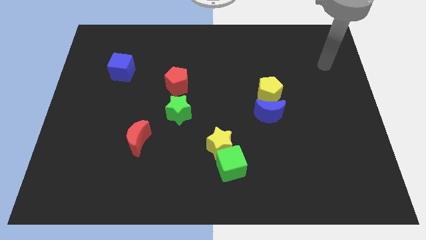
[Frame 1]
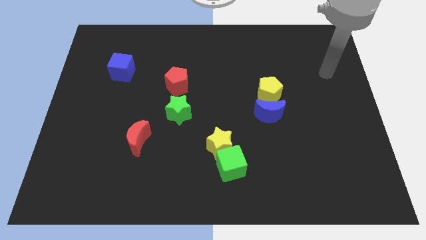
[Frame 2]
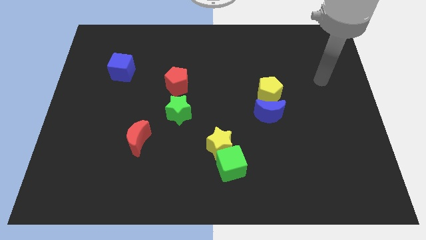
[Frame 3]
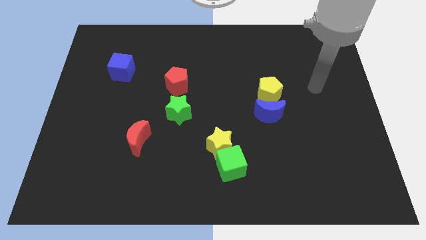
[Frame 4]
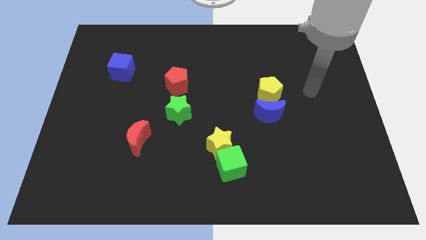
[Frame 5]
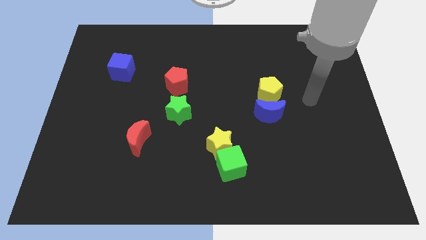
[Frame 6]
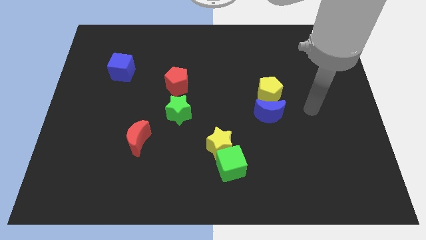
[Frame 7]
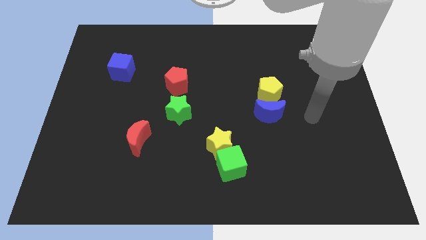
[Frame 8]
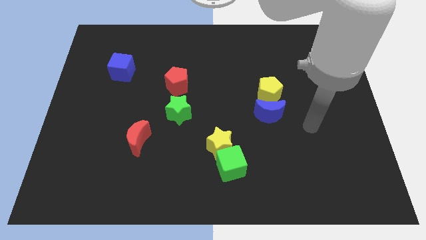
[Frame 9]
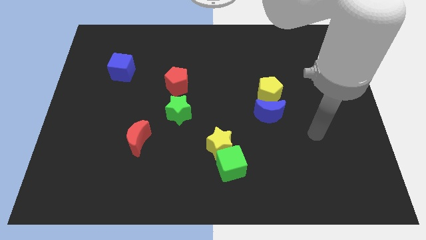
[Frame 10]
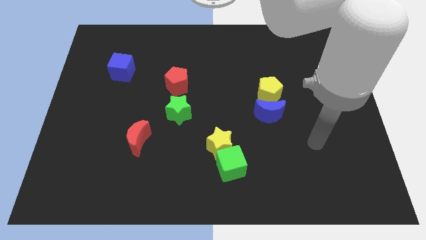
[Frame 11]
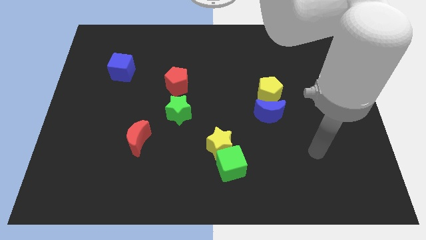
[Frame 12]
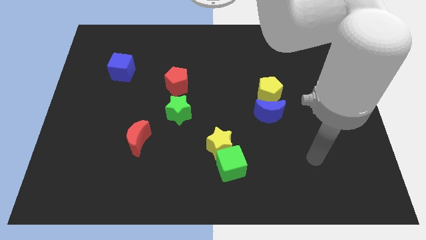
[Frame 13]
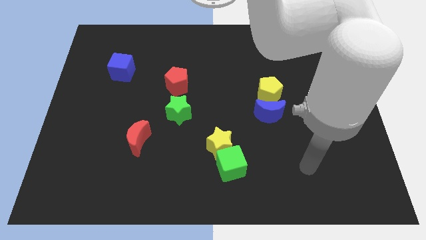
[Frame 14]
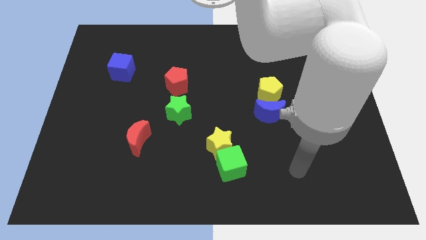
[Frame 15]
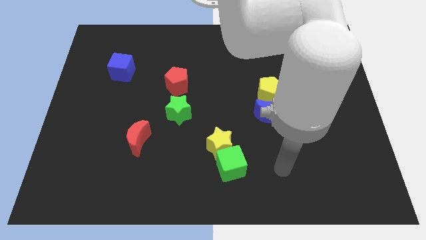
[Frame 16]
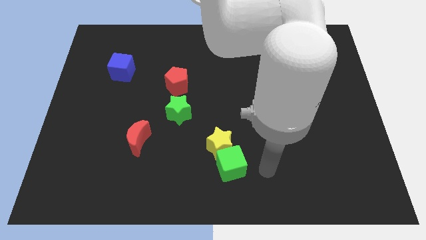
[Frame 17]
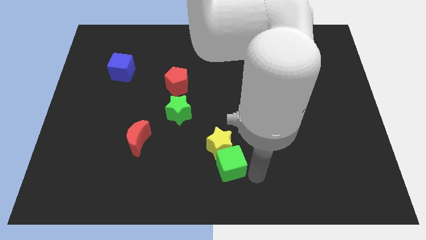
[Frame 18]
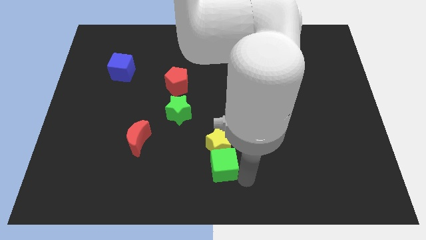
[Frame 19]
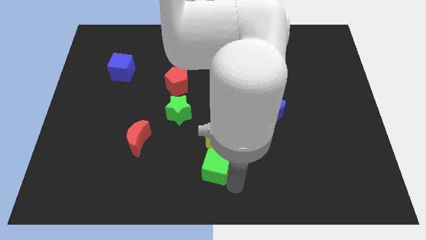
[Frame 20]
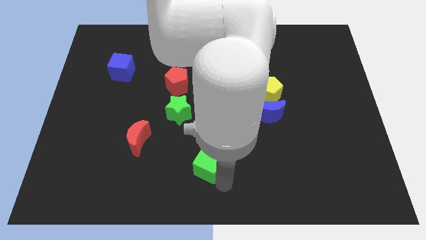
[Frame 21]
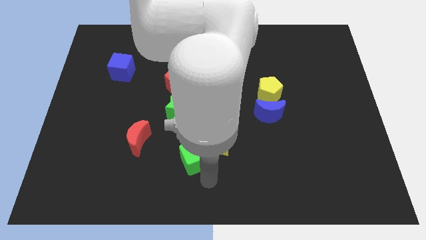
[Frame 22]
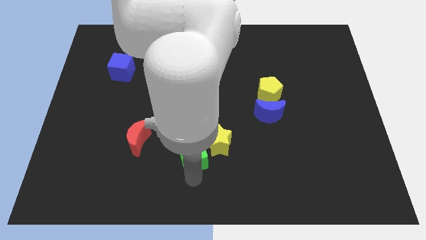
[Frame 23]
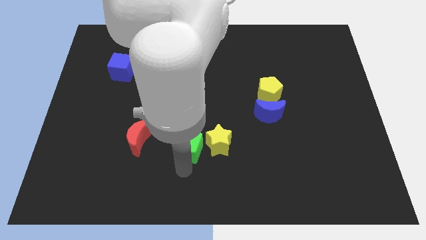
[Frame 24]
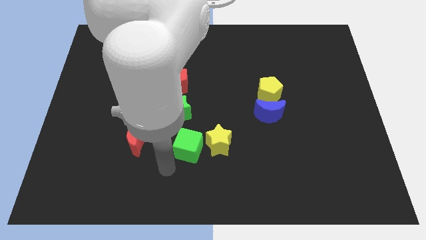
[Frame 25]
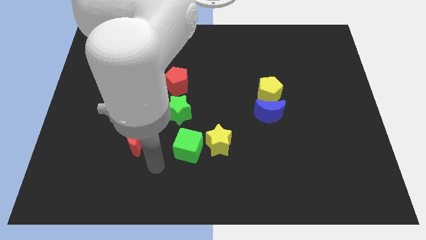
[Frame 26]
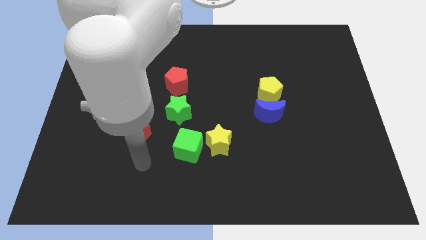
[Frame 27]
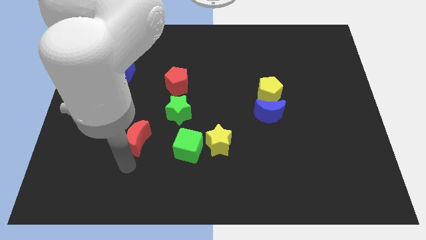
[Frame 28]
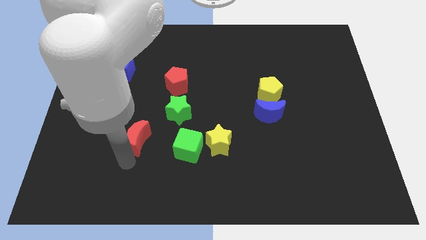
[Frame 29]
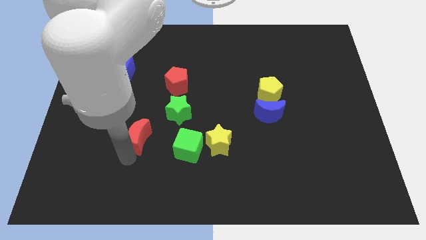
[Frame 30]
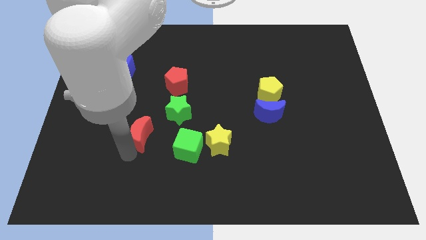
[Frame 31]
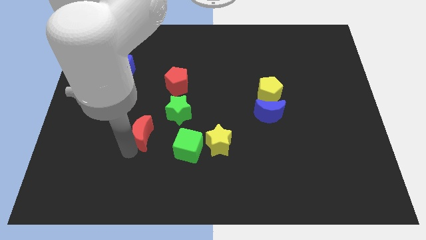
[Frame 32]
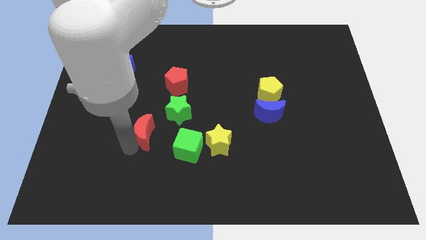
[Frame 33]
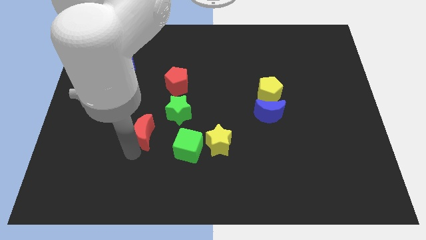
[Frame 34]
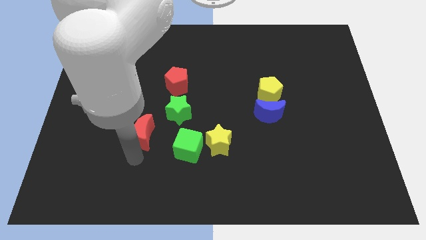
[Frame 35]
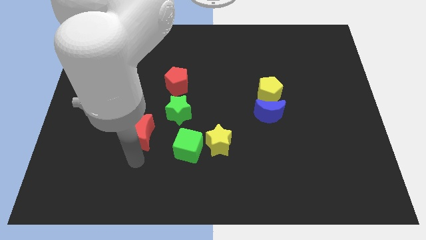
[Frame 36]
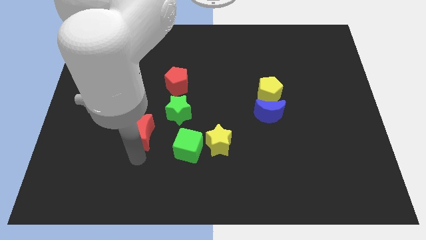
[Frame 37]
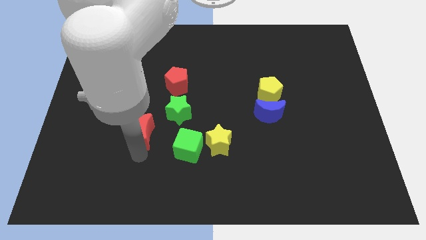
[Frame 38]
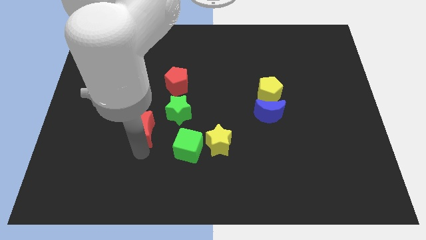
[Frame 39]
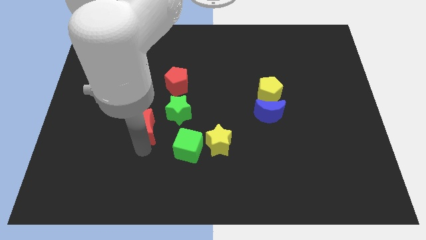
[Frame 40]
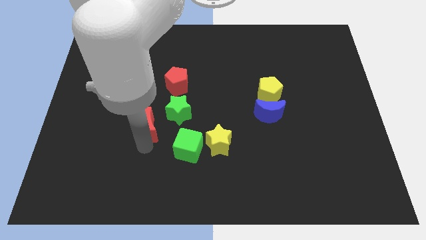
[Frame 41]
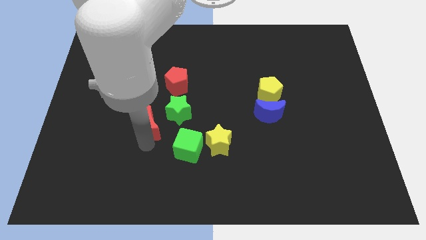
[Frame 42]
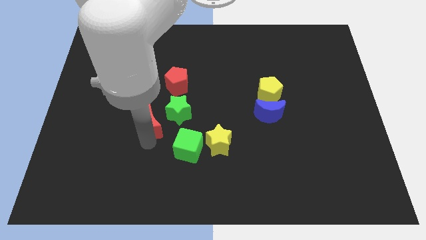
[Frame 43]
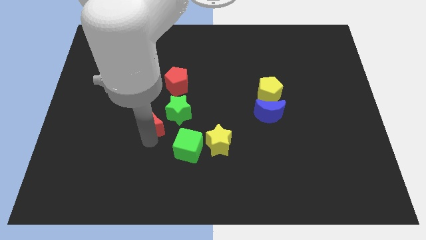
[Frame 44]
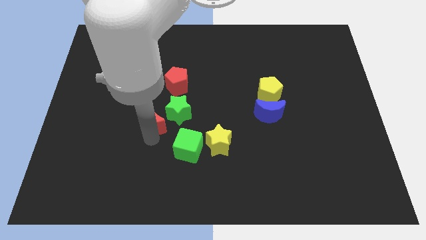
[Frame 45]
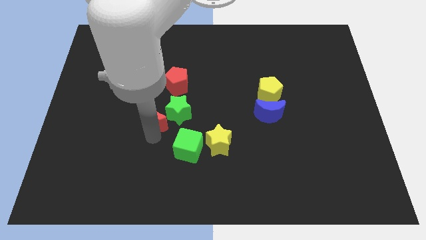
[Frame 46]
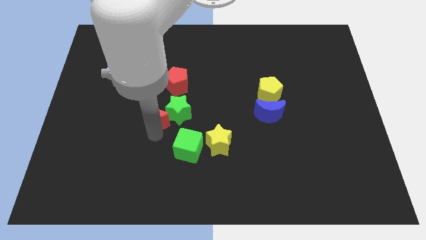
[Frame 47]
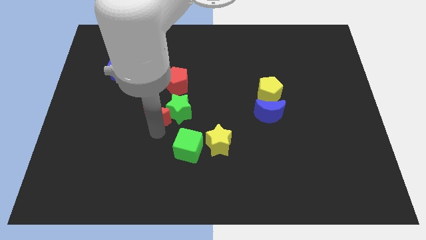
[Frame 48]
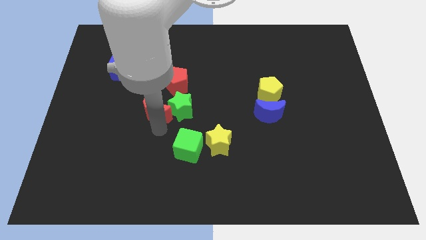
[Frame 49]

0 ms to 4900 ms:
move the red moon up and right diagonally slightly

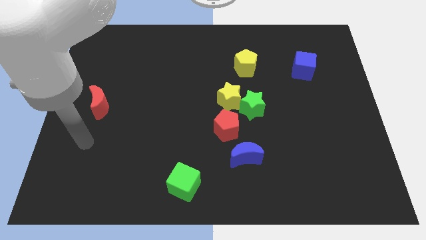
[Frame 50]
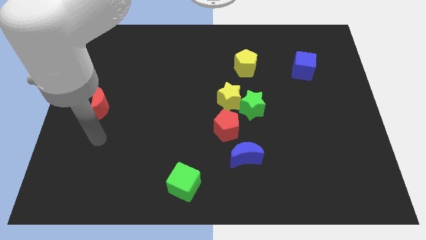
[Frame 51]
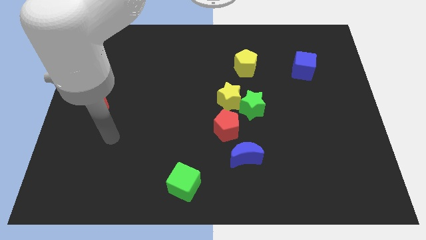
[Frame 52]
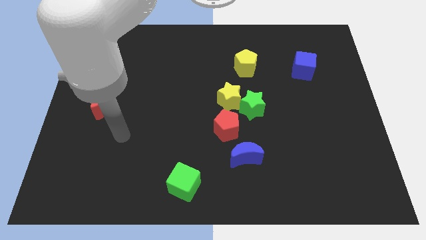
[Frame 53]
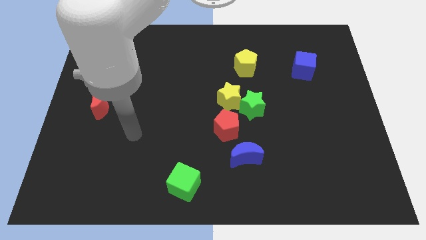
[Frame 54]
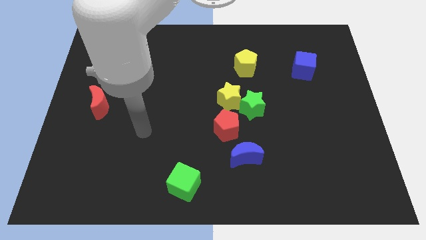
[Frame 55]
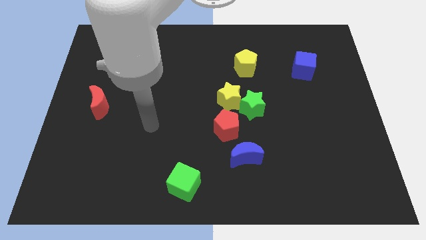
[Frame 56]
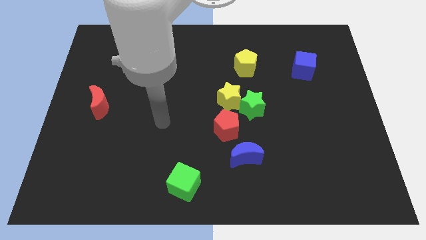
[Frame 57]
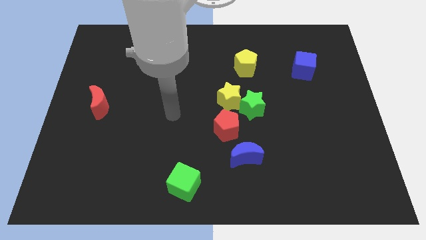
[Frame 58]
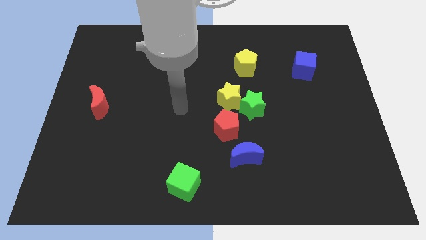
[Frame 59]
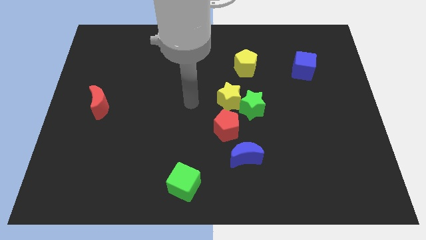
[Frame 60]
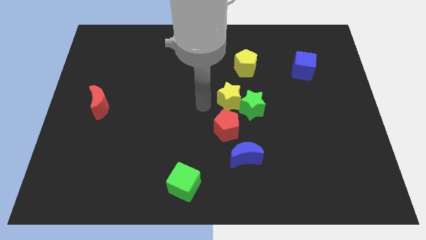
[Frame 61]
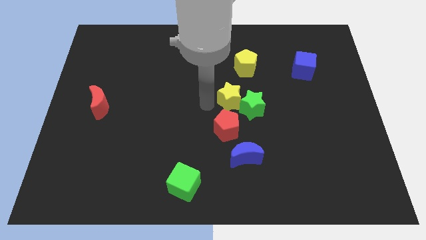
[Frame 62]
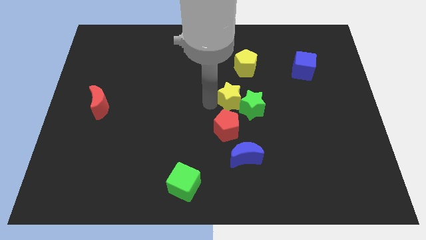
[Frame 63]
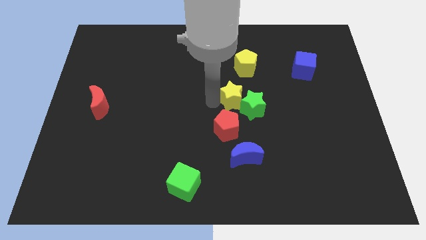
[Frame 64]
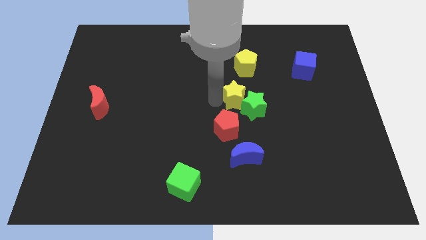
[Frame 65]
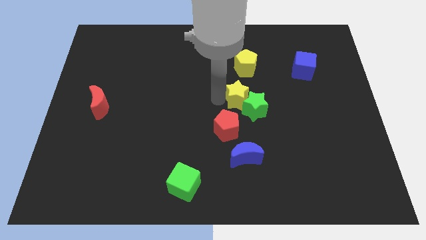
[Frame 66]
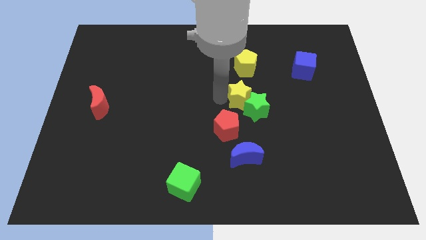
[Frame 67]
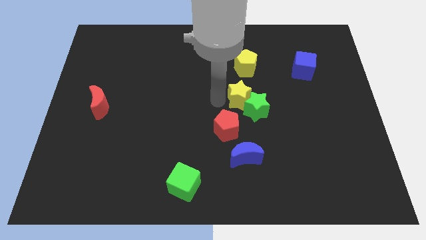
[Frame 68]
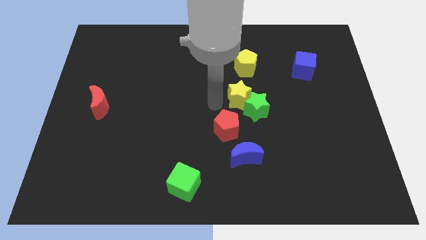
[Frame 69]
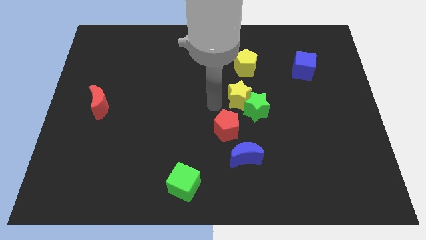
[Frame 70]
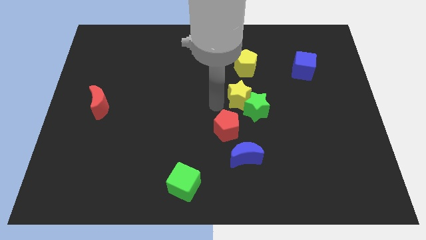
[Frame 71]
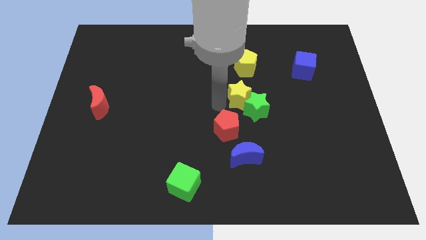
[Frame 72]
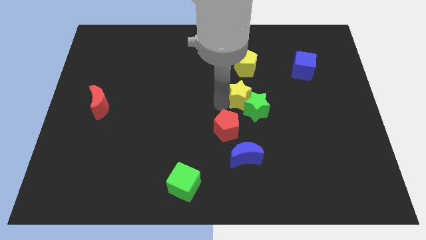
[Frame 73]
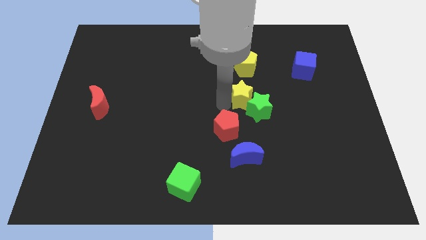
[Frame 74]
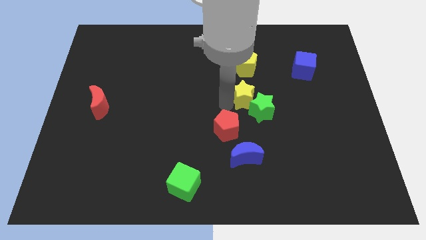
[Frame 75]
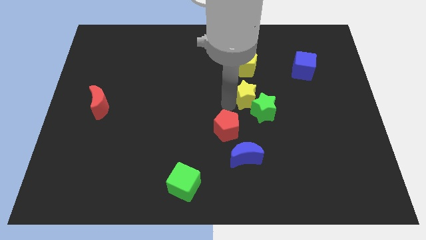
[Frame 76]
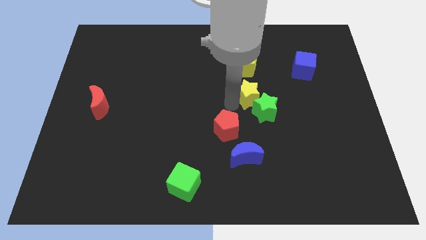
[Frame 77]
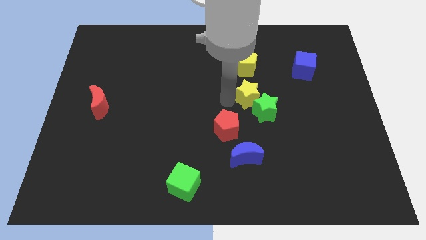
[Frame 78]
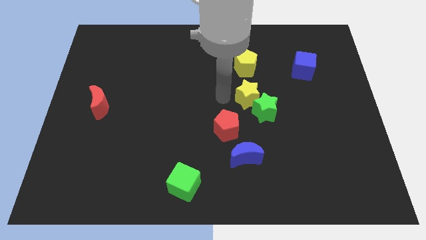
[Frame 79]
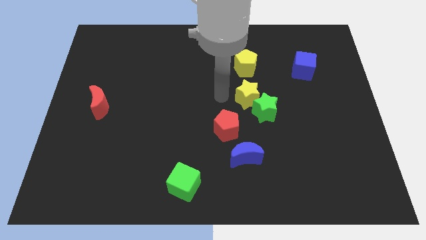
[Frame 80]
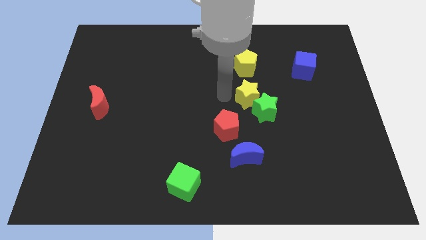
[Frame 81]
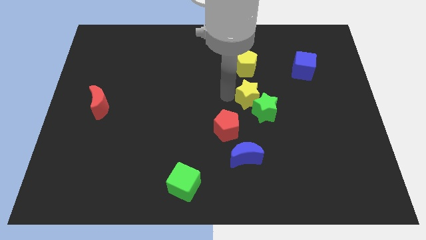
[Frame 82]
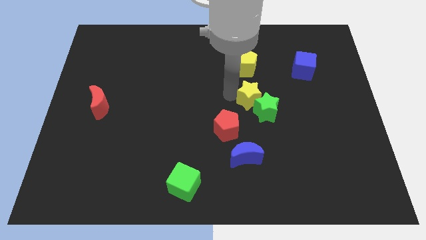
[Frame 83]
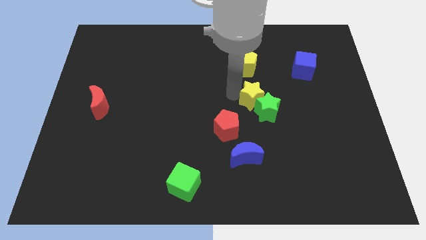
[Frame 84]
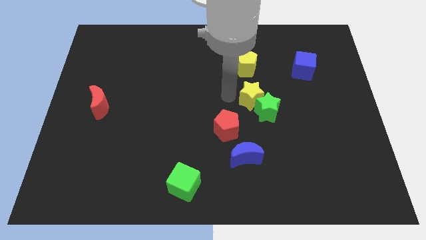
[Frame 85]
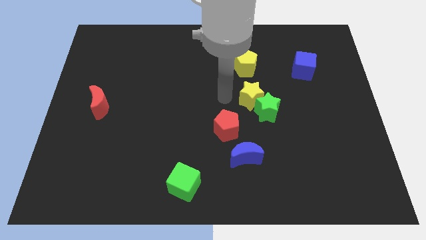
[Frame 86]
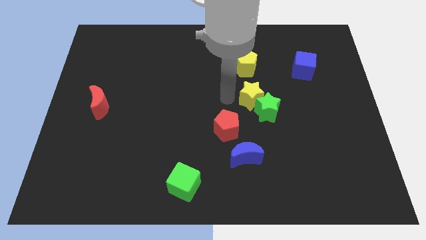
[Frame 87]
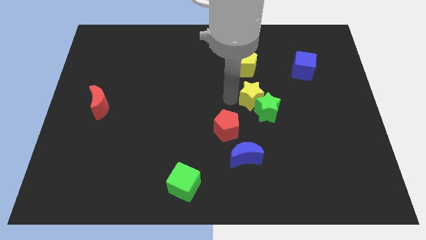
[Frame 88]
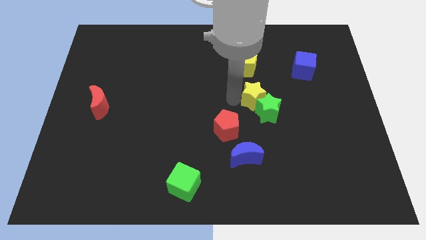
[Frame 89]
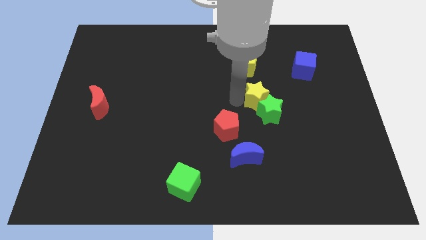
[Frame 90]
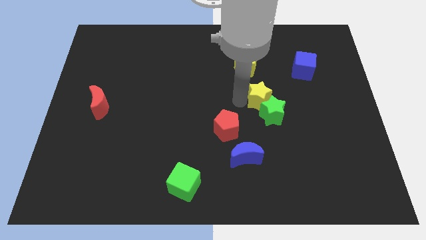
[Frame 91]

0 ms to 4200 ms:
slide the yellow star right a bit
